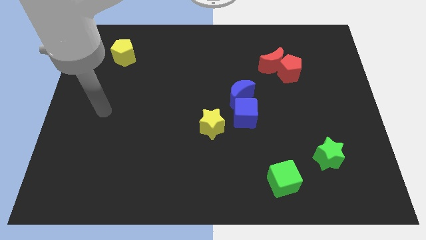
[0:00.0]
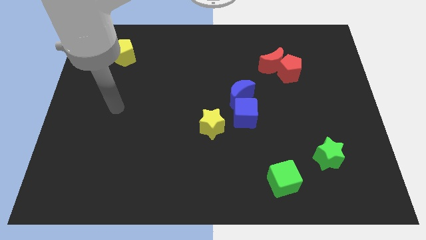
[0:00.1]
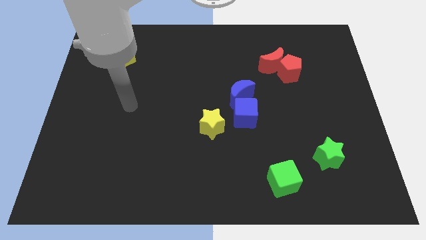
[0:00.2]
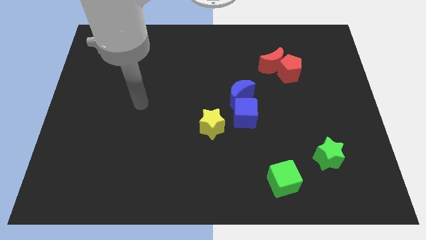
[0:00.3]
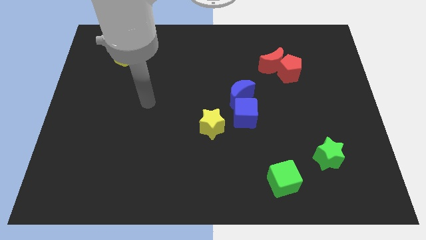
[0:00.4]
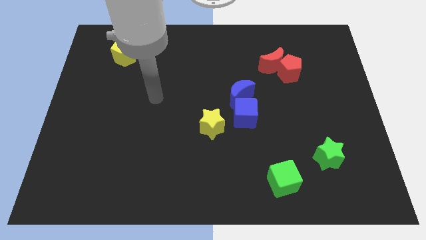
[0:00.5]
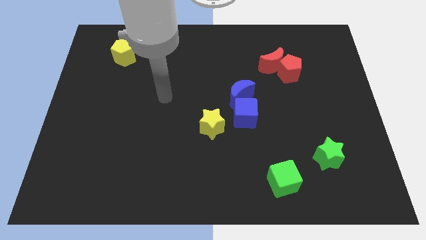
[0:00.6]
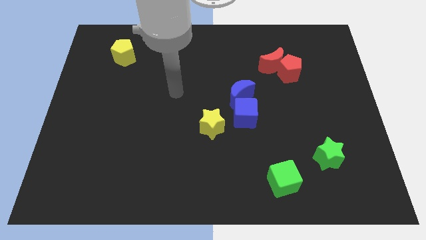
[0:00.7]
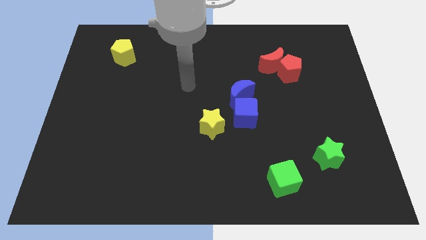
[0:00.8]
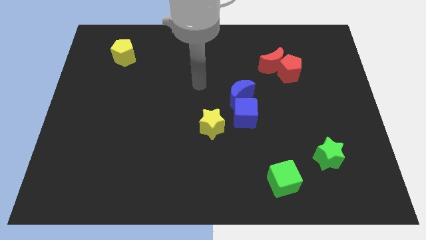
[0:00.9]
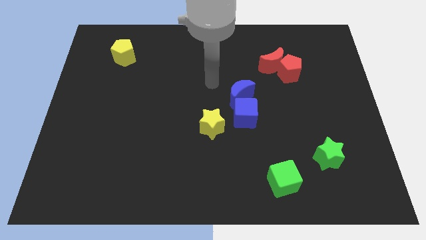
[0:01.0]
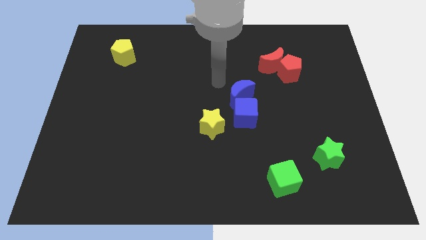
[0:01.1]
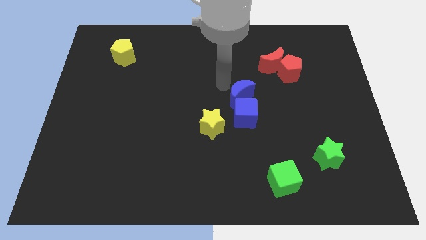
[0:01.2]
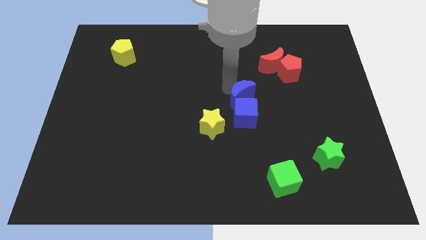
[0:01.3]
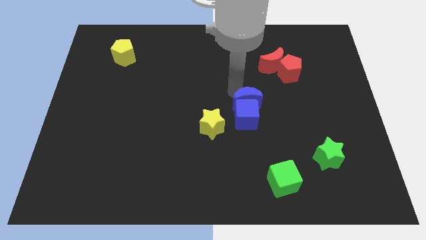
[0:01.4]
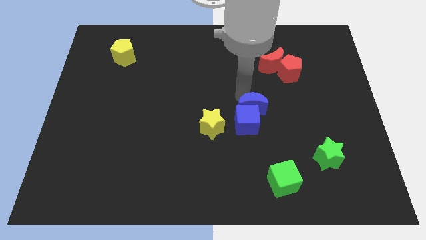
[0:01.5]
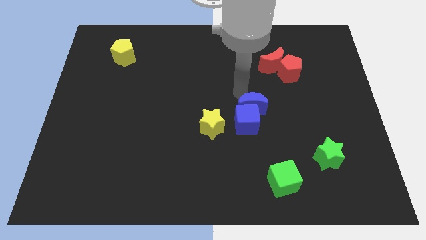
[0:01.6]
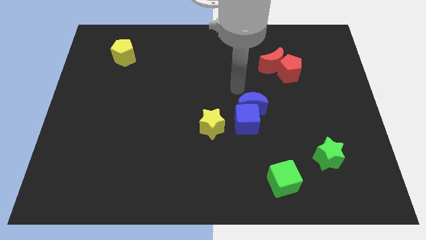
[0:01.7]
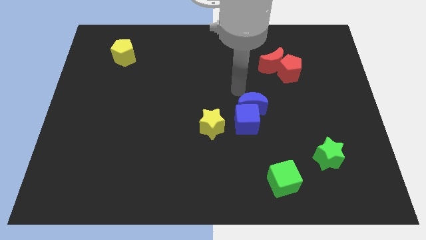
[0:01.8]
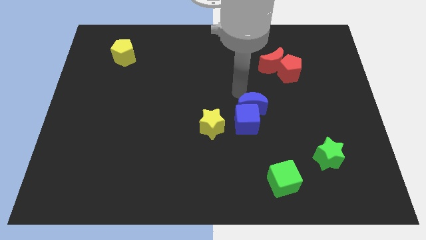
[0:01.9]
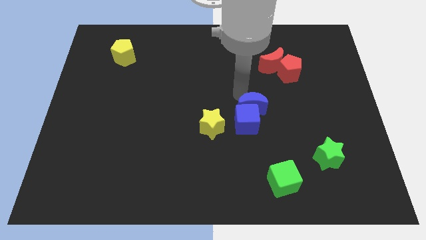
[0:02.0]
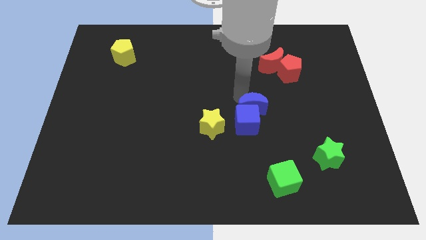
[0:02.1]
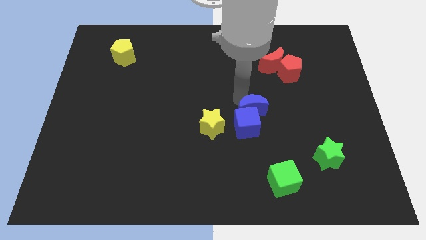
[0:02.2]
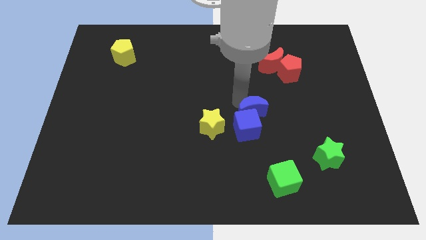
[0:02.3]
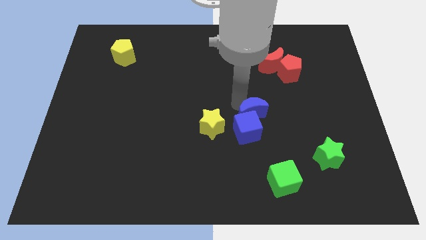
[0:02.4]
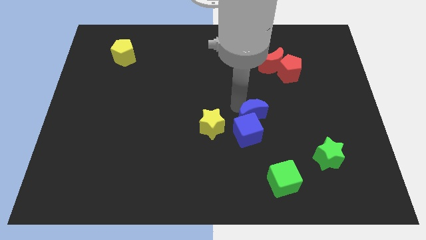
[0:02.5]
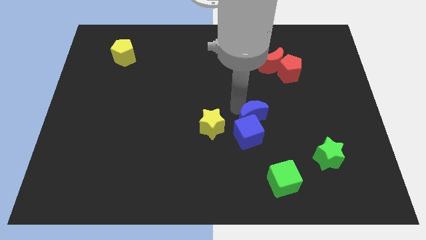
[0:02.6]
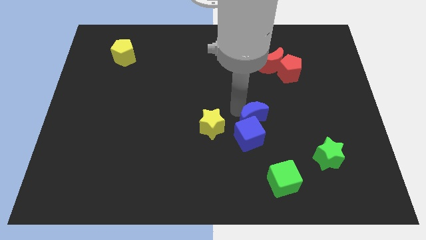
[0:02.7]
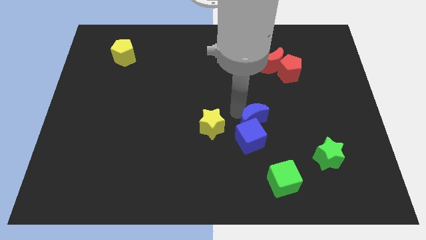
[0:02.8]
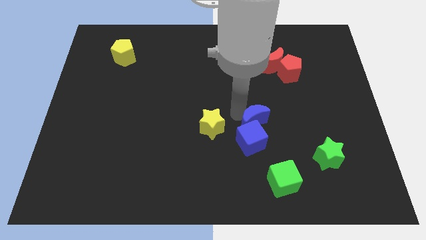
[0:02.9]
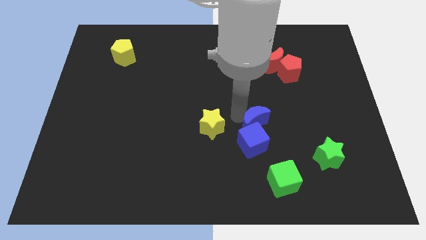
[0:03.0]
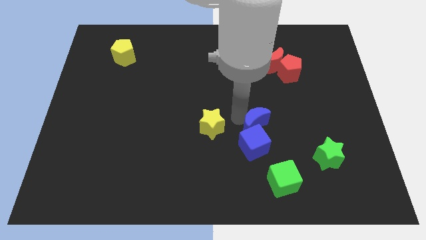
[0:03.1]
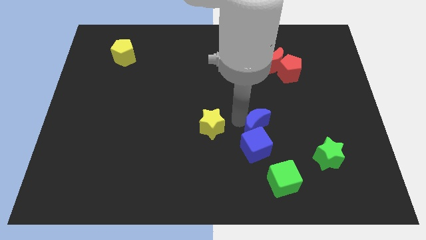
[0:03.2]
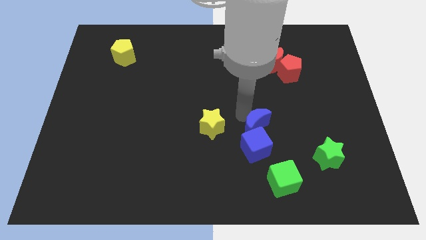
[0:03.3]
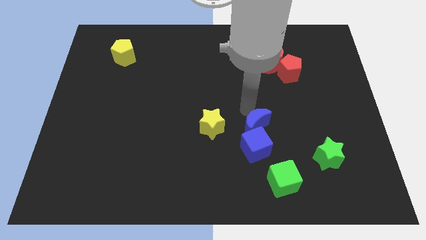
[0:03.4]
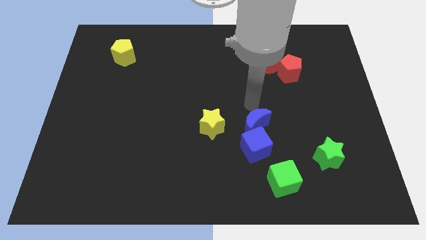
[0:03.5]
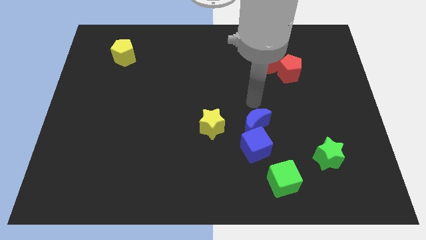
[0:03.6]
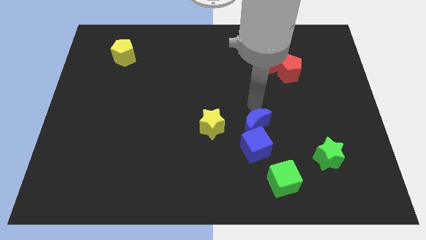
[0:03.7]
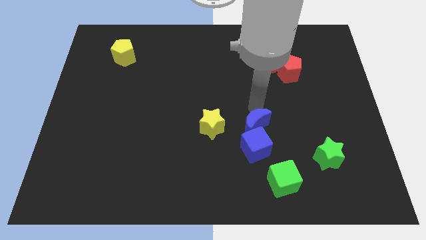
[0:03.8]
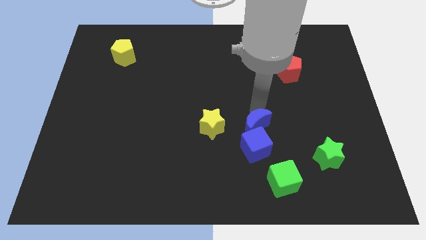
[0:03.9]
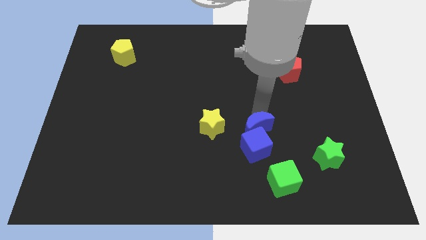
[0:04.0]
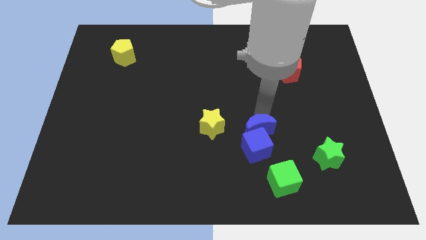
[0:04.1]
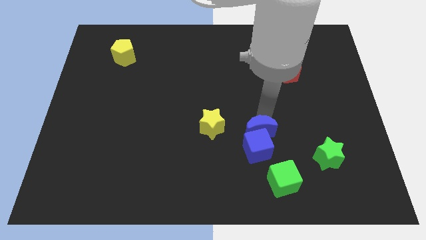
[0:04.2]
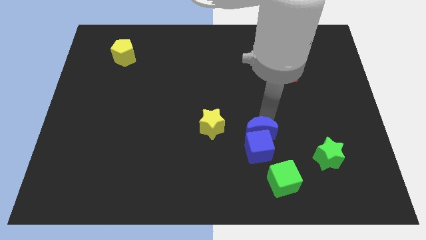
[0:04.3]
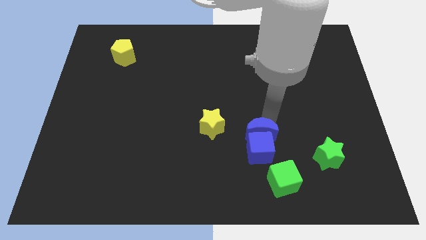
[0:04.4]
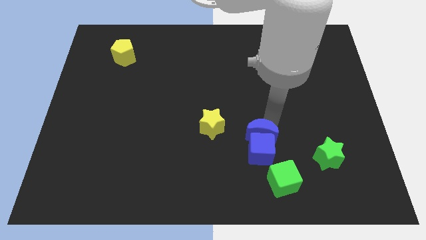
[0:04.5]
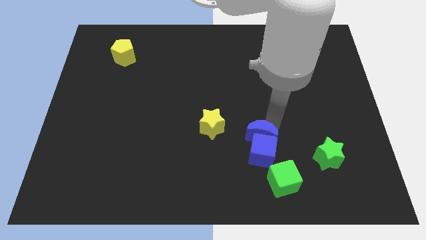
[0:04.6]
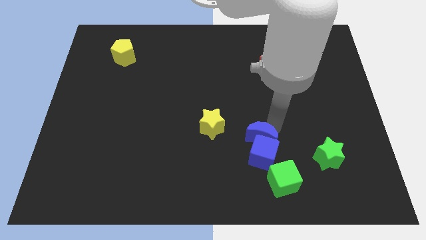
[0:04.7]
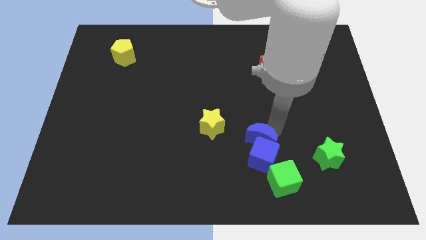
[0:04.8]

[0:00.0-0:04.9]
put the blue moon diagonally up and to the left of the green cube

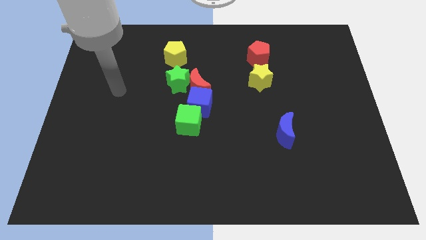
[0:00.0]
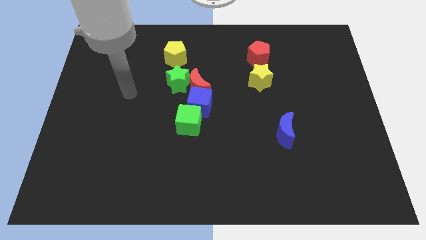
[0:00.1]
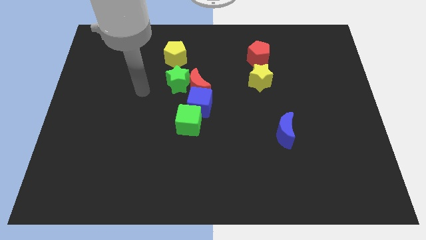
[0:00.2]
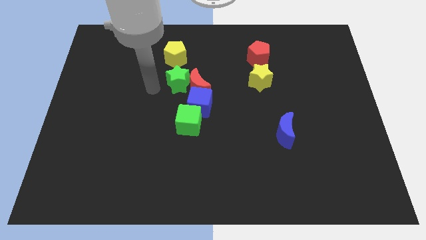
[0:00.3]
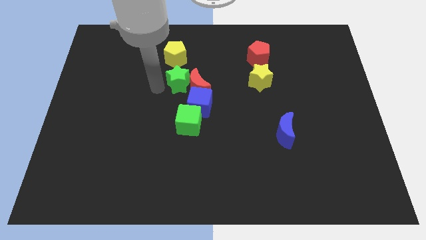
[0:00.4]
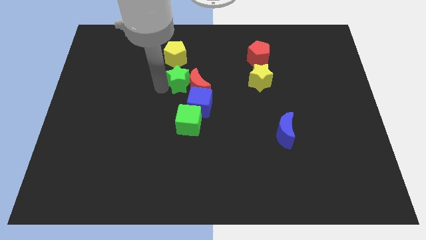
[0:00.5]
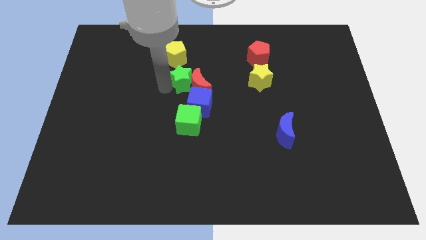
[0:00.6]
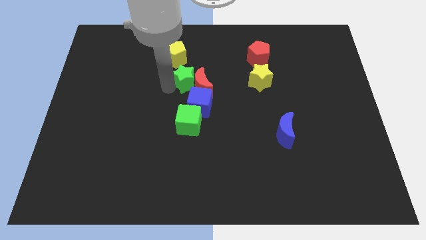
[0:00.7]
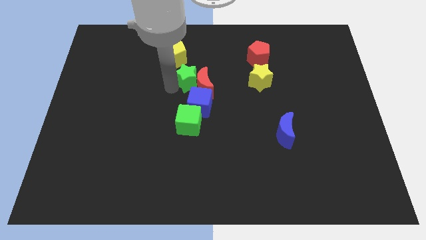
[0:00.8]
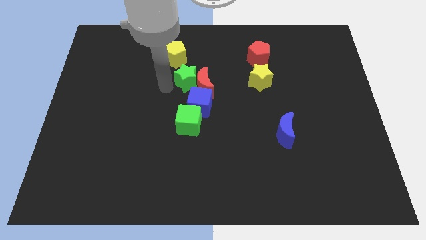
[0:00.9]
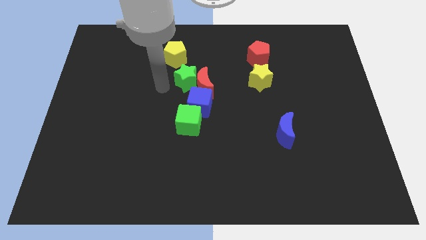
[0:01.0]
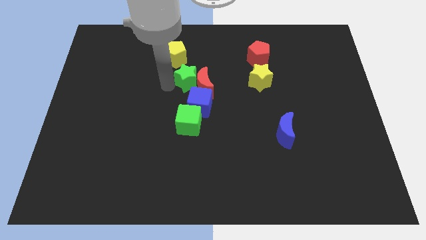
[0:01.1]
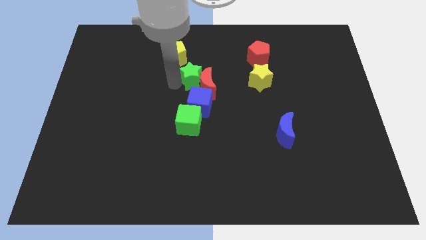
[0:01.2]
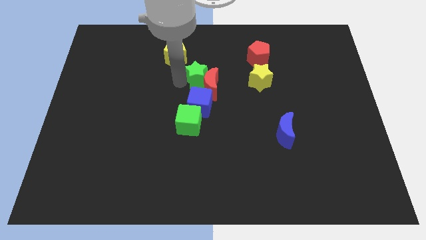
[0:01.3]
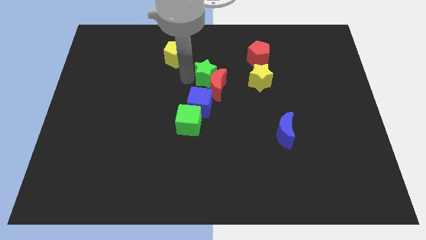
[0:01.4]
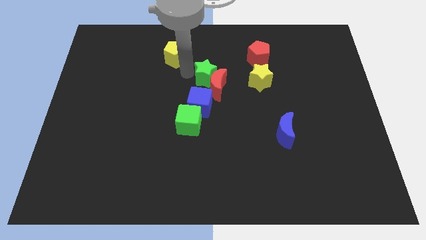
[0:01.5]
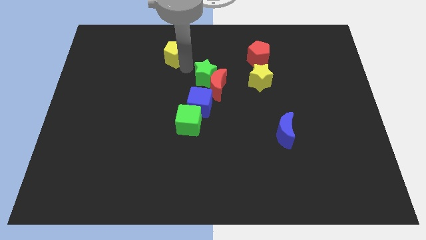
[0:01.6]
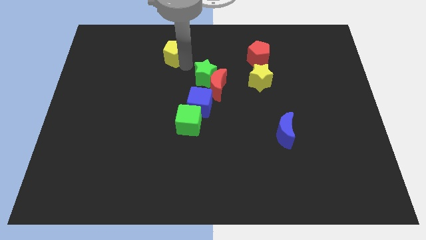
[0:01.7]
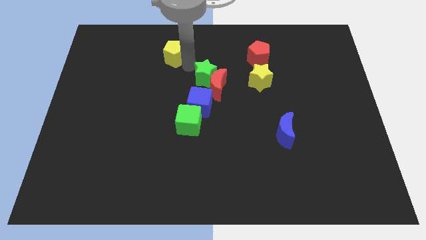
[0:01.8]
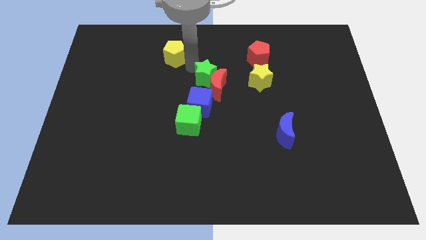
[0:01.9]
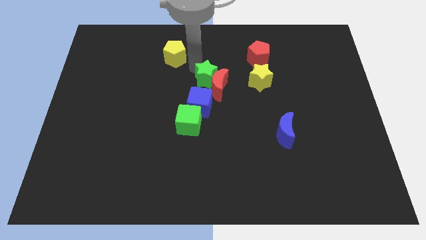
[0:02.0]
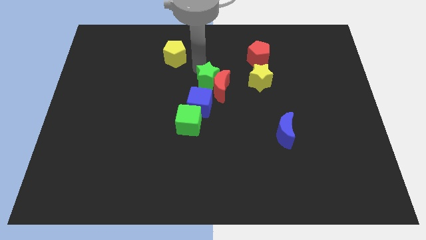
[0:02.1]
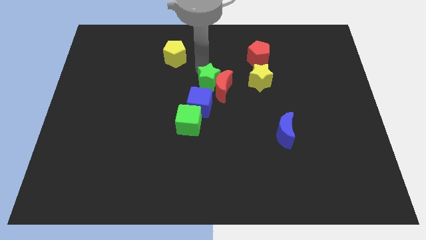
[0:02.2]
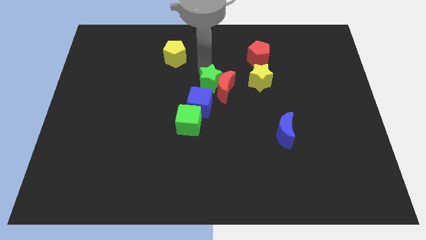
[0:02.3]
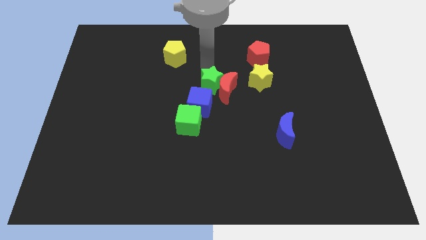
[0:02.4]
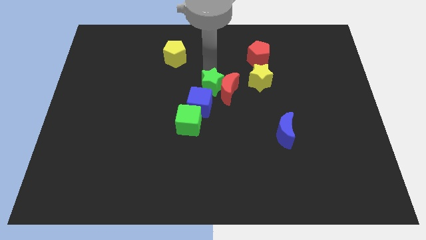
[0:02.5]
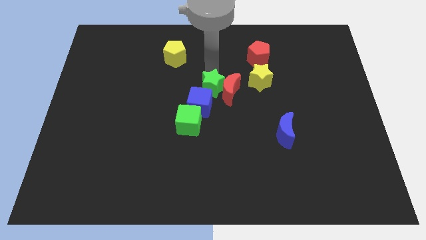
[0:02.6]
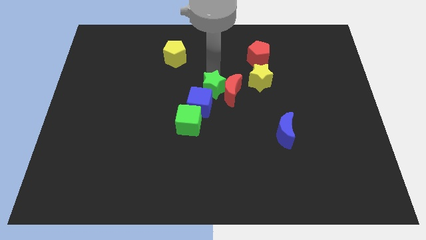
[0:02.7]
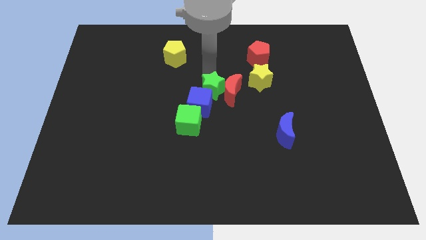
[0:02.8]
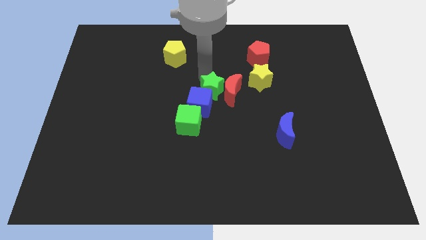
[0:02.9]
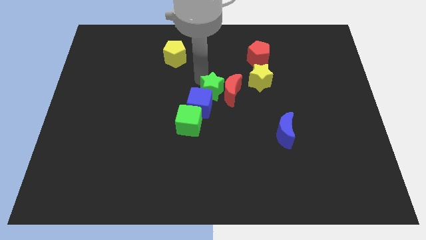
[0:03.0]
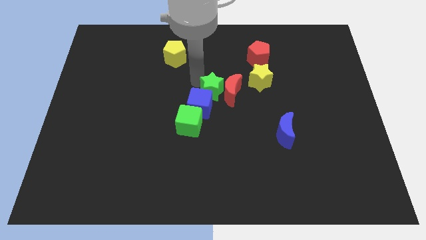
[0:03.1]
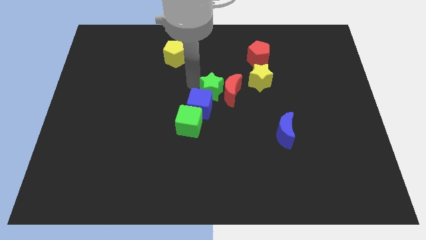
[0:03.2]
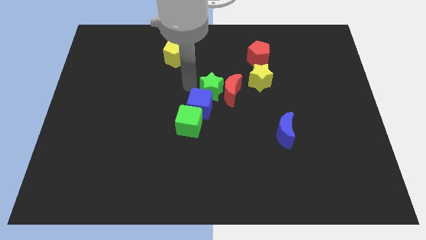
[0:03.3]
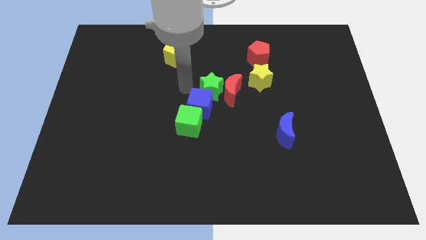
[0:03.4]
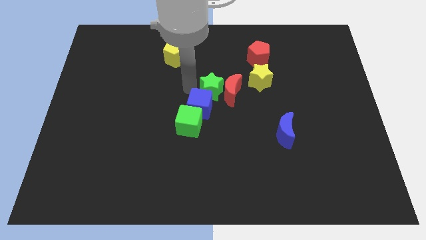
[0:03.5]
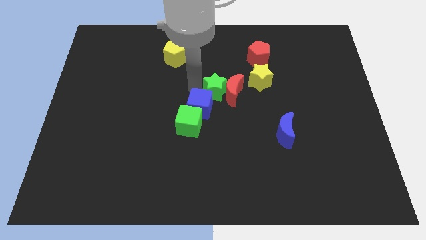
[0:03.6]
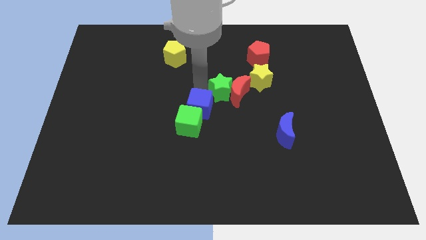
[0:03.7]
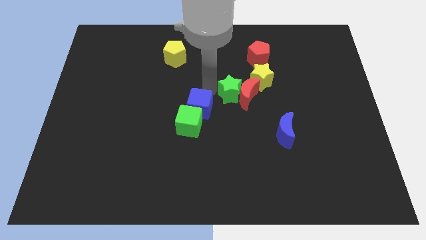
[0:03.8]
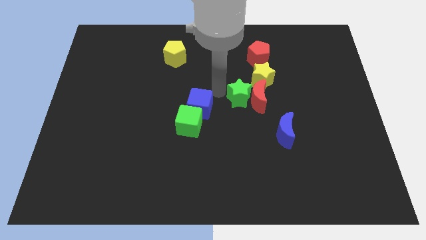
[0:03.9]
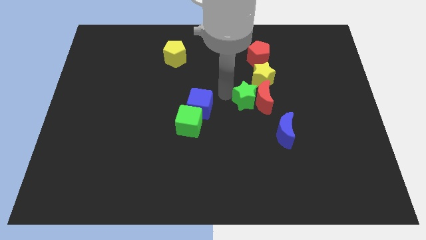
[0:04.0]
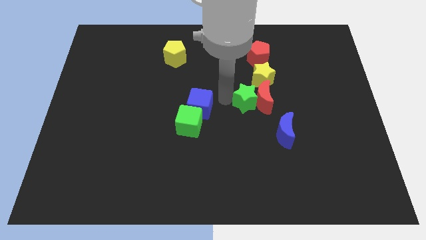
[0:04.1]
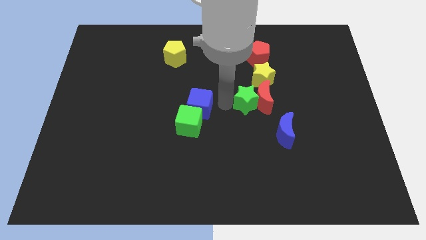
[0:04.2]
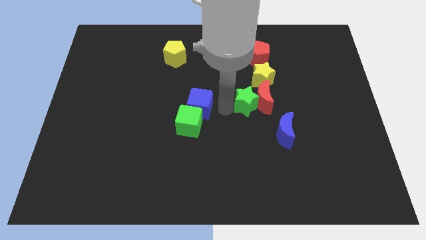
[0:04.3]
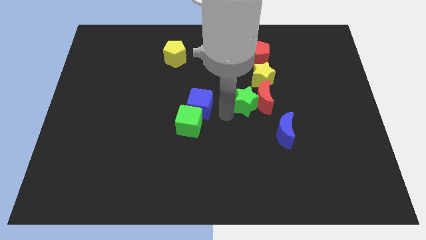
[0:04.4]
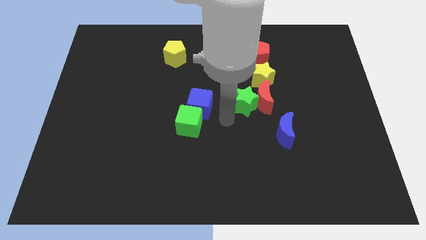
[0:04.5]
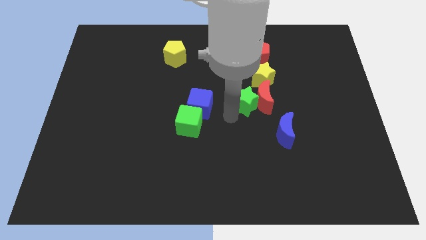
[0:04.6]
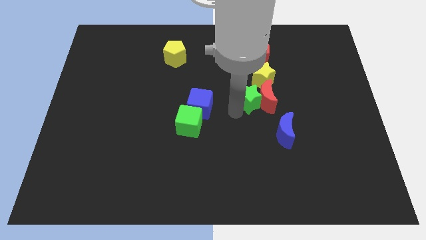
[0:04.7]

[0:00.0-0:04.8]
slide the green star to the bottom side of the red pentagon
